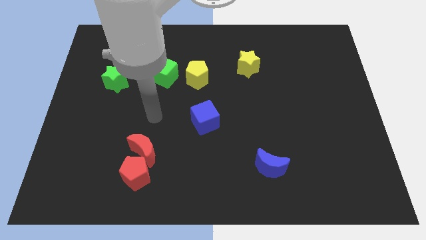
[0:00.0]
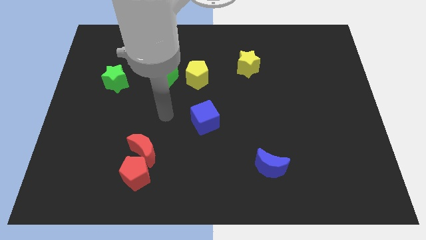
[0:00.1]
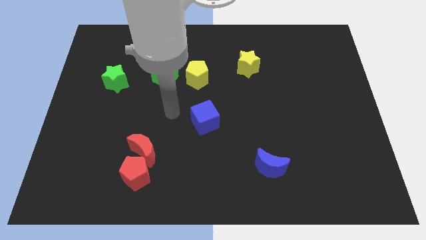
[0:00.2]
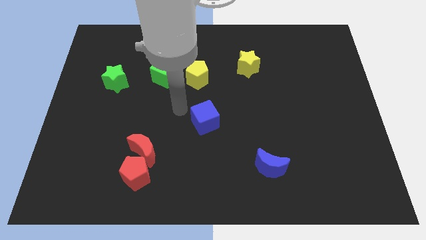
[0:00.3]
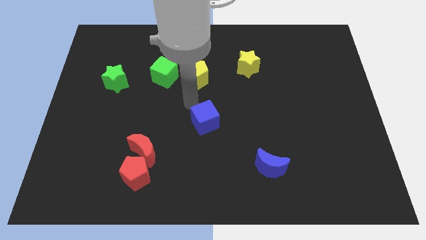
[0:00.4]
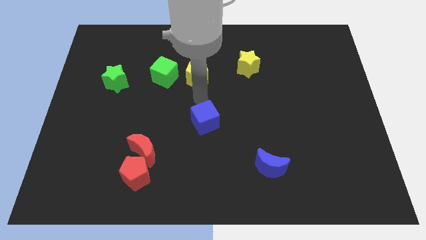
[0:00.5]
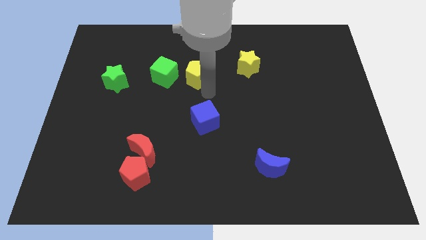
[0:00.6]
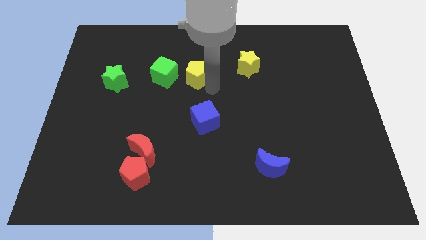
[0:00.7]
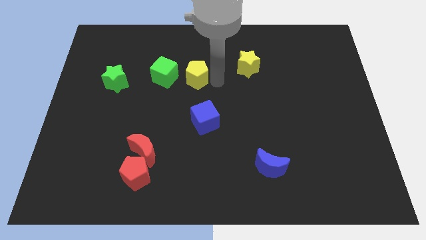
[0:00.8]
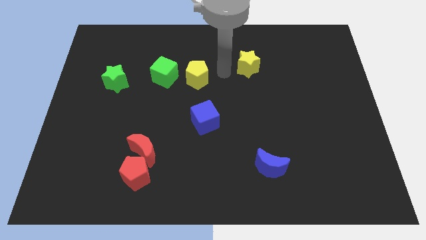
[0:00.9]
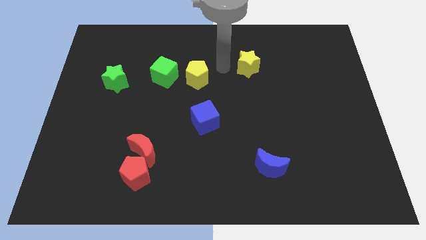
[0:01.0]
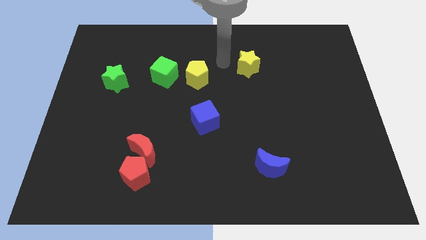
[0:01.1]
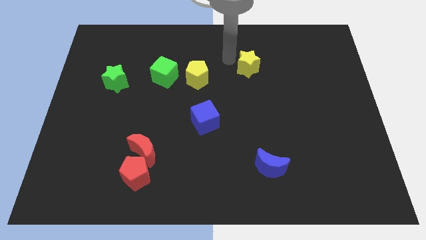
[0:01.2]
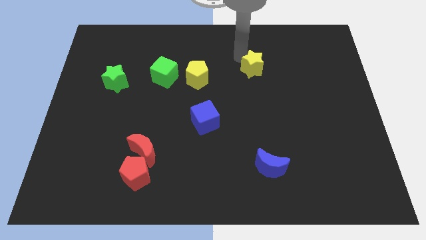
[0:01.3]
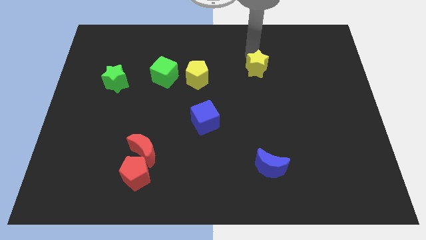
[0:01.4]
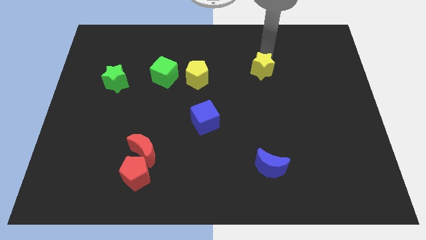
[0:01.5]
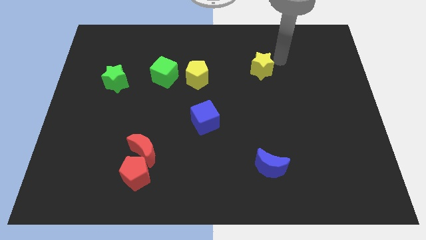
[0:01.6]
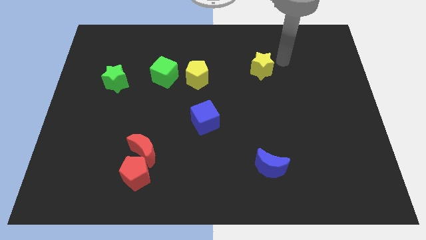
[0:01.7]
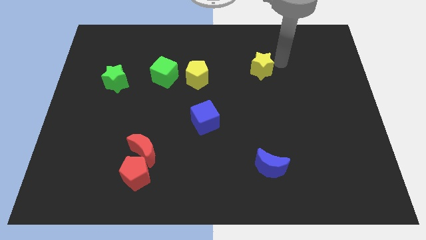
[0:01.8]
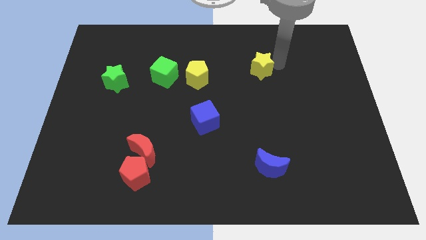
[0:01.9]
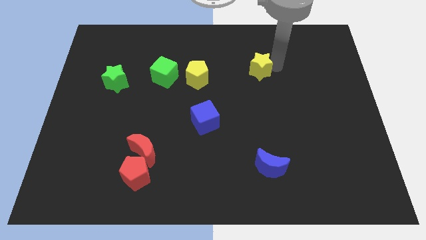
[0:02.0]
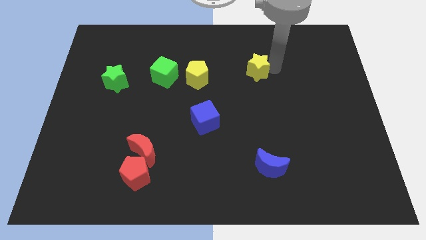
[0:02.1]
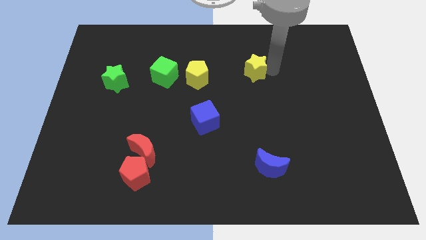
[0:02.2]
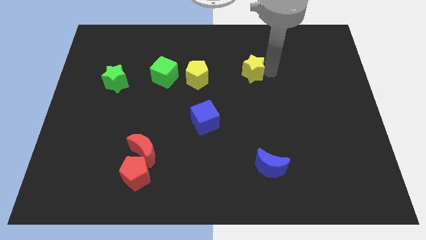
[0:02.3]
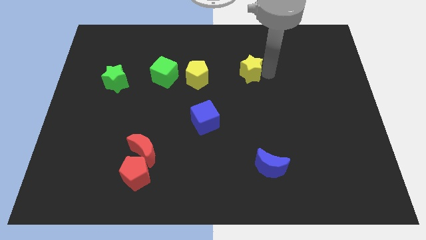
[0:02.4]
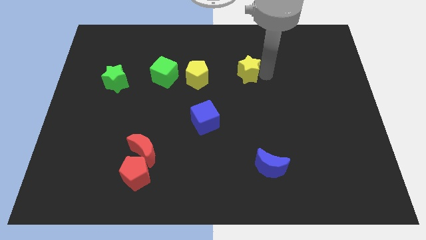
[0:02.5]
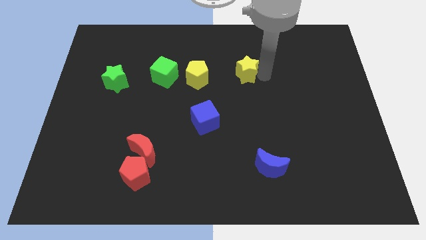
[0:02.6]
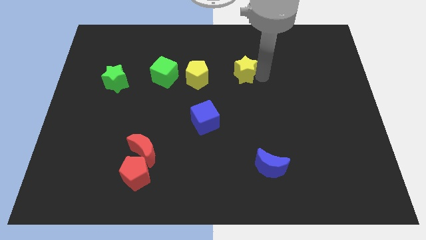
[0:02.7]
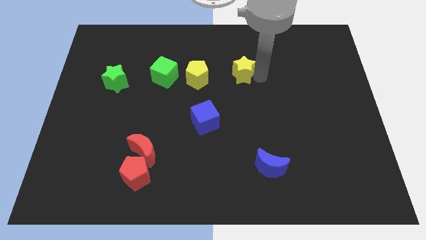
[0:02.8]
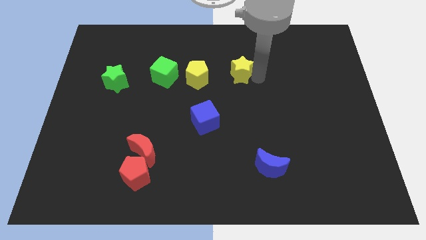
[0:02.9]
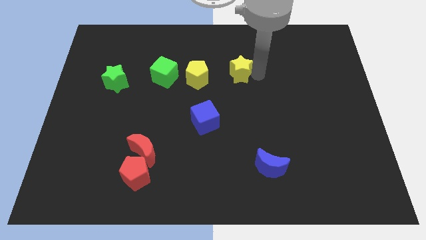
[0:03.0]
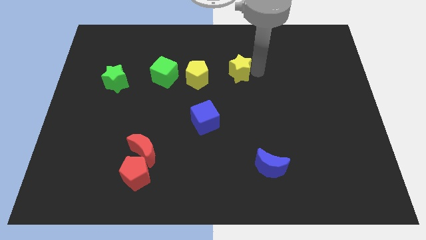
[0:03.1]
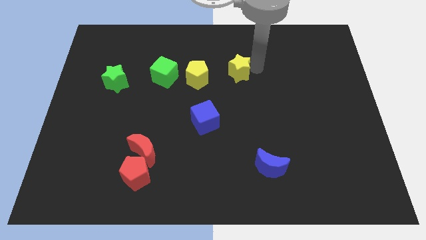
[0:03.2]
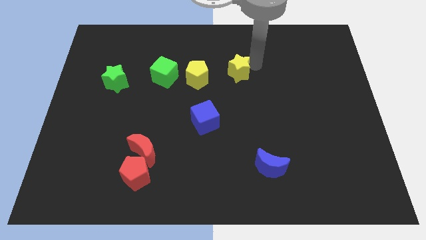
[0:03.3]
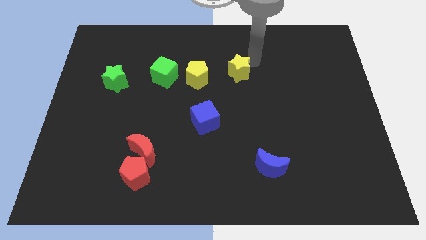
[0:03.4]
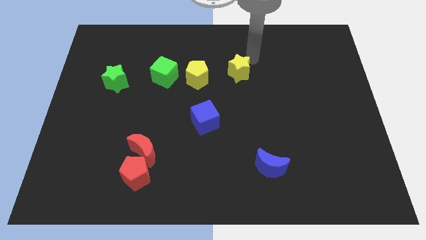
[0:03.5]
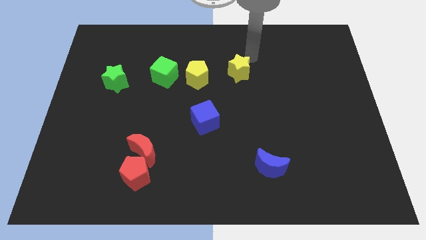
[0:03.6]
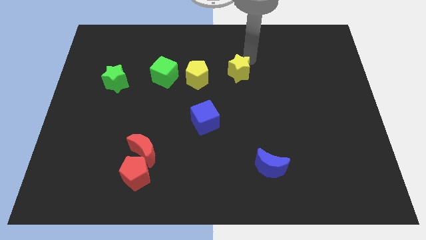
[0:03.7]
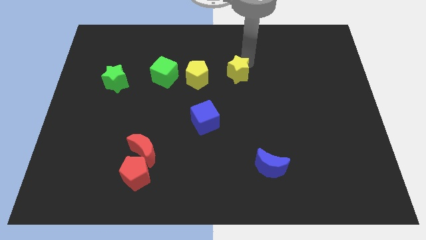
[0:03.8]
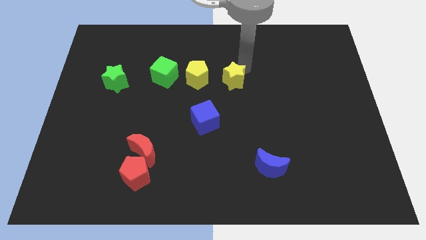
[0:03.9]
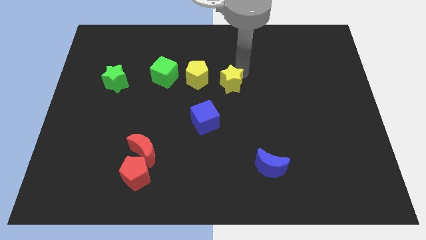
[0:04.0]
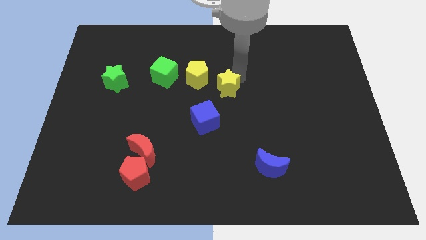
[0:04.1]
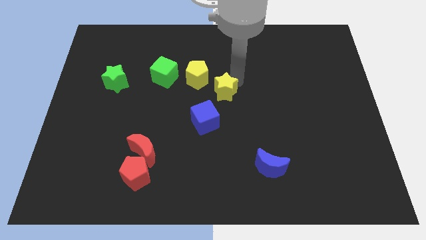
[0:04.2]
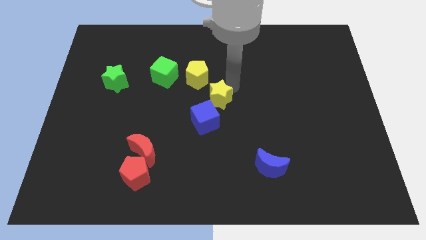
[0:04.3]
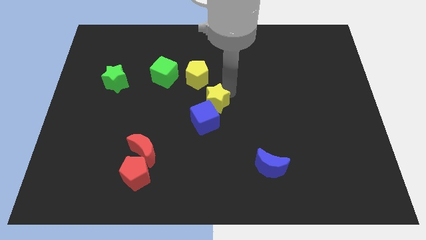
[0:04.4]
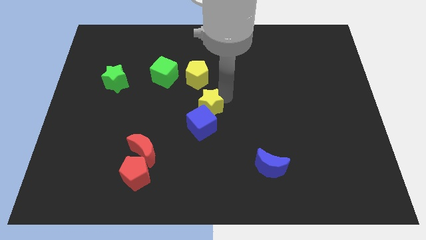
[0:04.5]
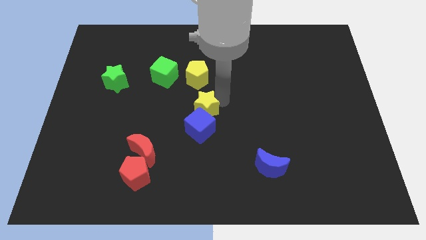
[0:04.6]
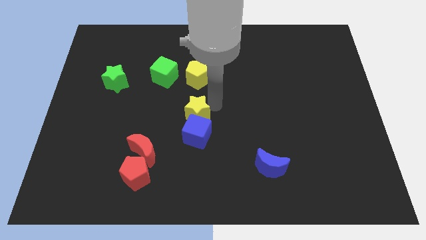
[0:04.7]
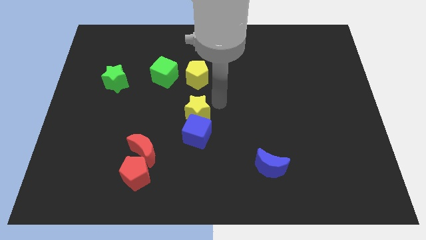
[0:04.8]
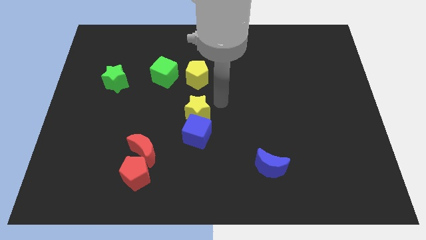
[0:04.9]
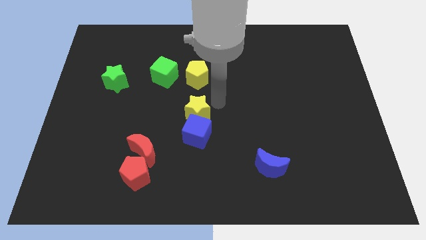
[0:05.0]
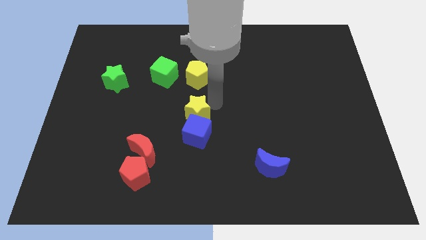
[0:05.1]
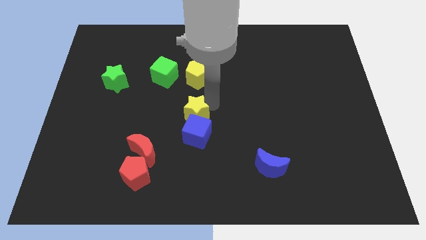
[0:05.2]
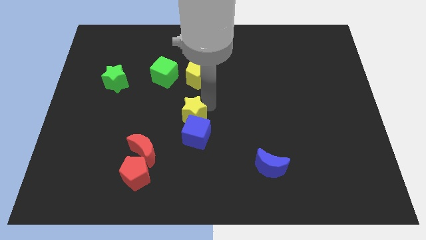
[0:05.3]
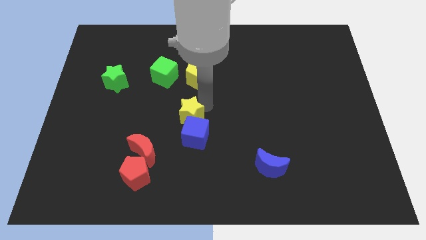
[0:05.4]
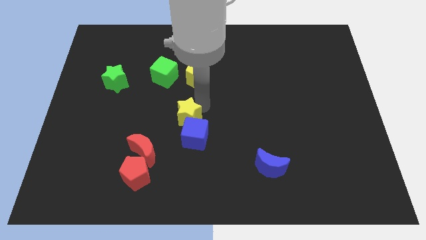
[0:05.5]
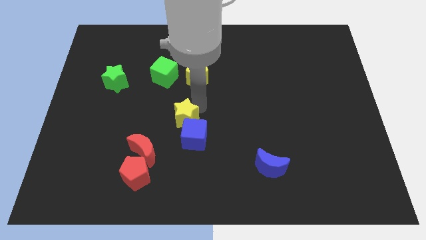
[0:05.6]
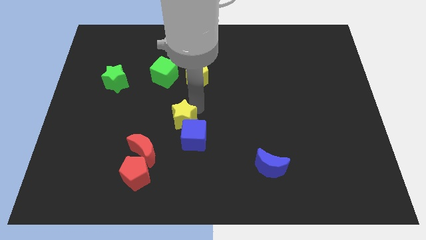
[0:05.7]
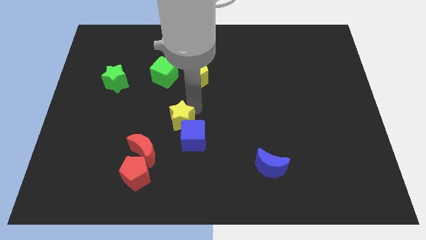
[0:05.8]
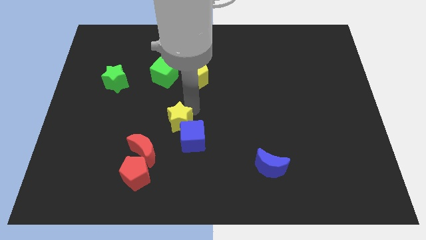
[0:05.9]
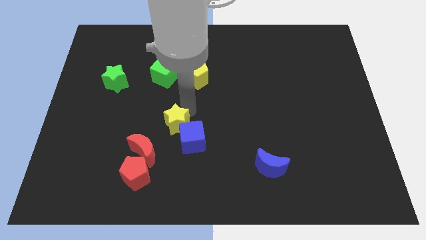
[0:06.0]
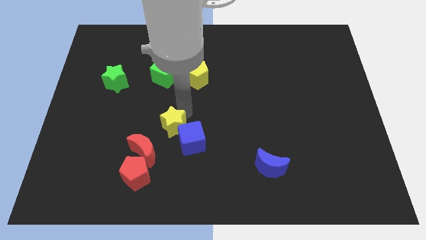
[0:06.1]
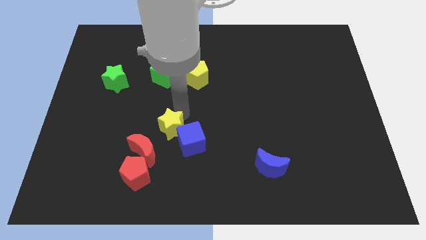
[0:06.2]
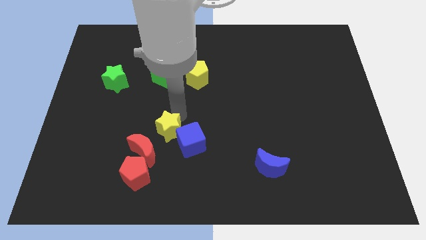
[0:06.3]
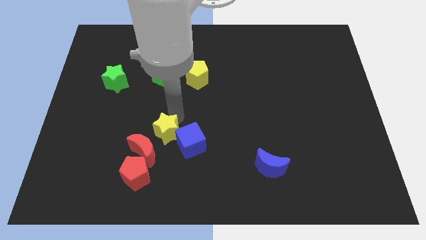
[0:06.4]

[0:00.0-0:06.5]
move the yellow star to the top right of the red pentagon

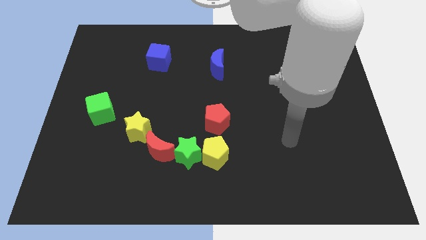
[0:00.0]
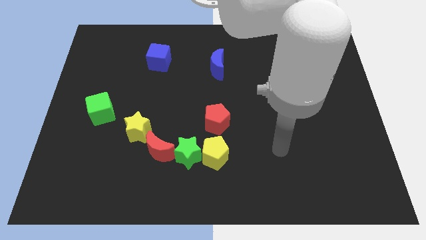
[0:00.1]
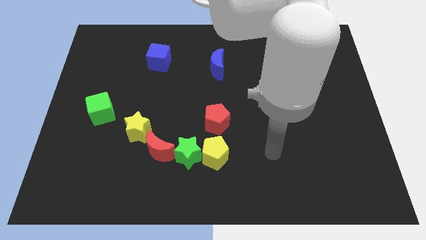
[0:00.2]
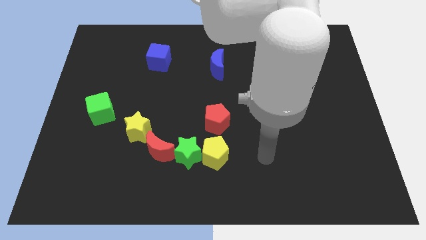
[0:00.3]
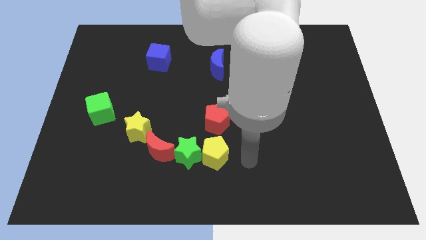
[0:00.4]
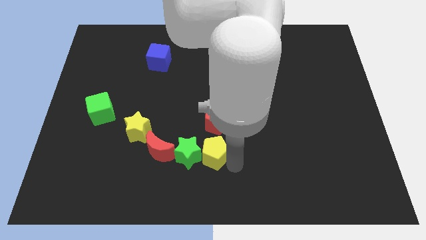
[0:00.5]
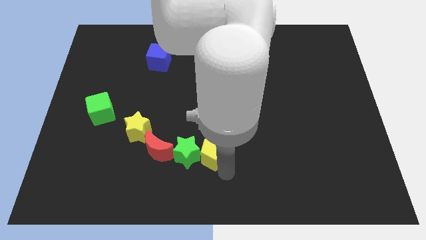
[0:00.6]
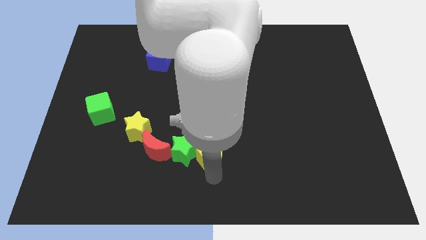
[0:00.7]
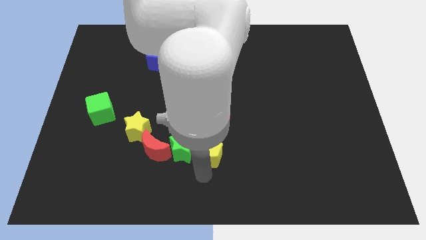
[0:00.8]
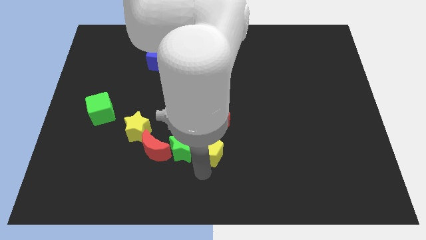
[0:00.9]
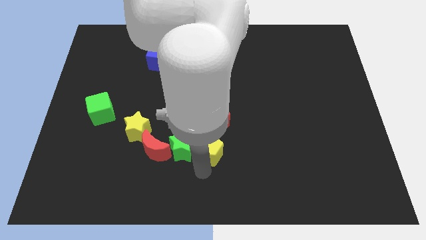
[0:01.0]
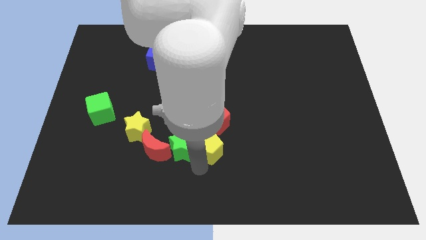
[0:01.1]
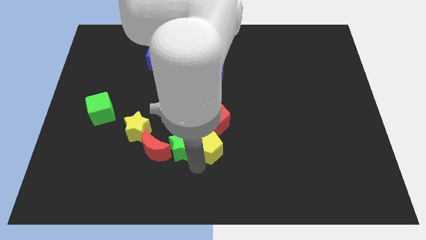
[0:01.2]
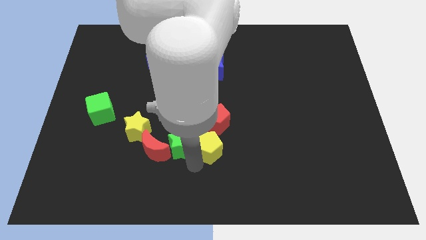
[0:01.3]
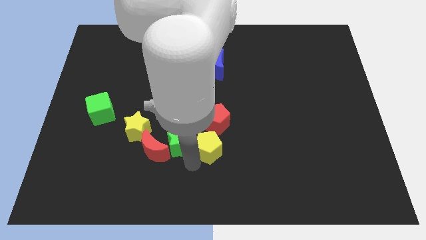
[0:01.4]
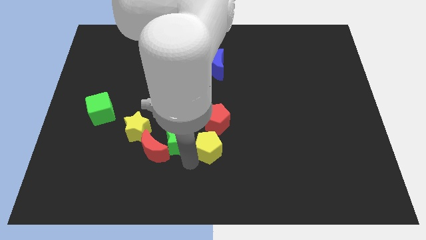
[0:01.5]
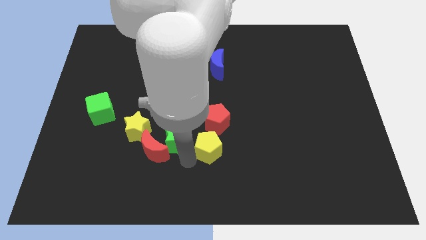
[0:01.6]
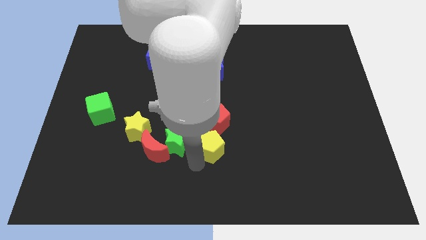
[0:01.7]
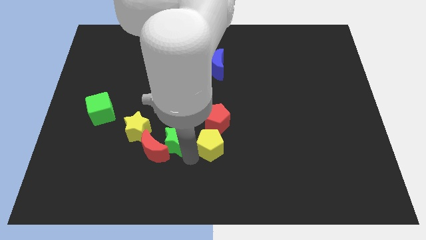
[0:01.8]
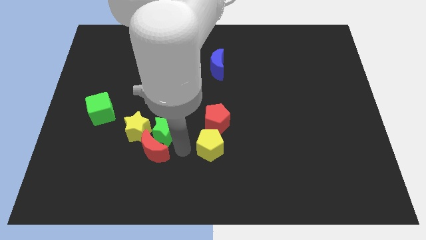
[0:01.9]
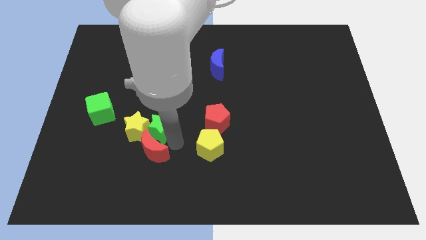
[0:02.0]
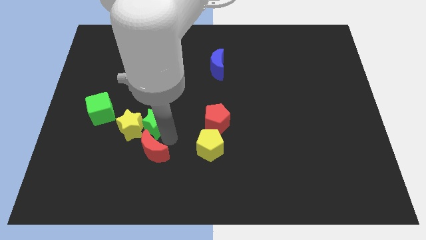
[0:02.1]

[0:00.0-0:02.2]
move the green star just right of the green cube
